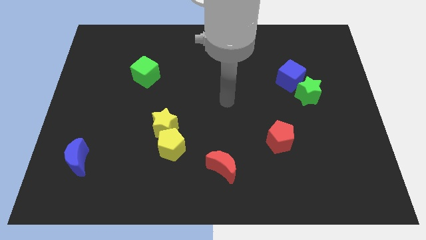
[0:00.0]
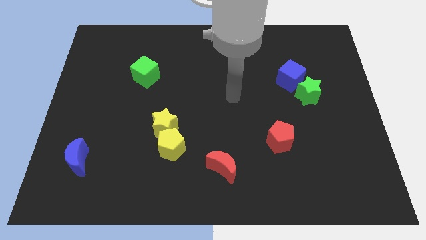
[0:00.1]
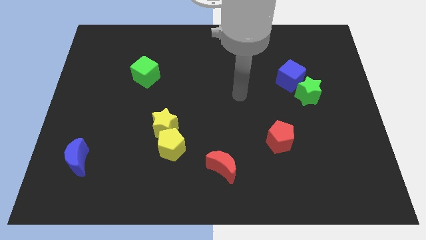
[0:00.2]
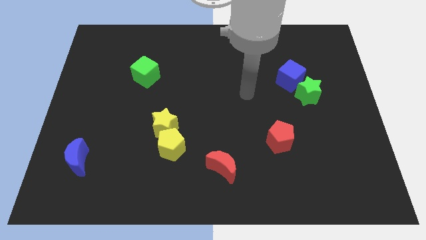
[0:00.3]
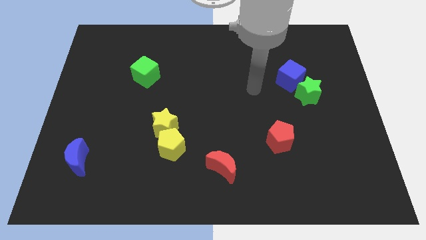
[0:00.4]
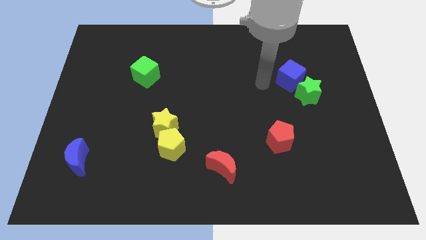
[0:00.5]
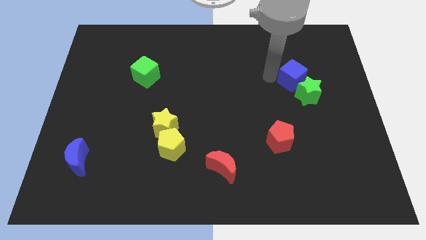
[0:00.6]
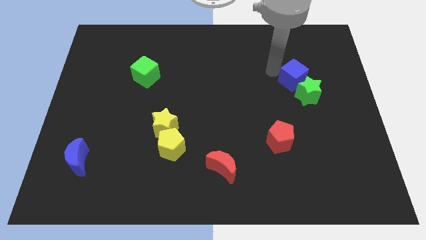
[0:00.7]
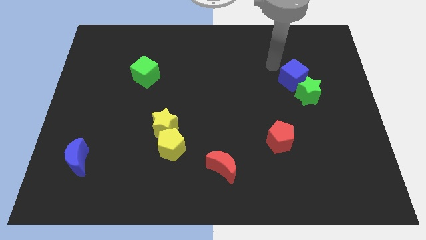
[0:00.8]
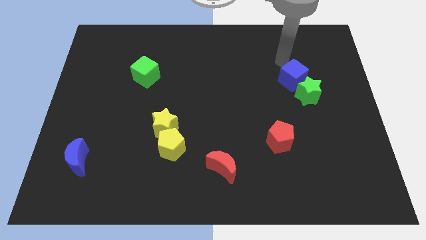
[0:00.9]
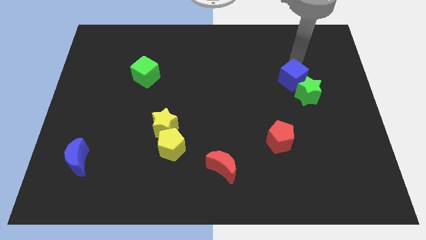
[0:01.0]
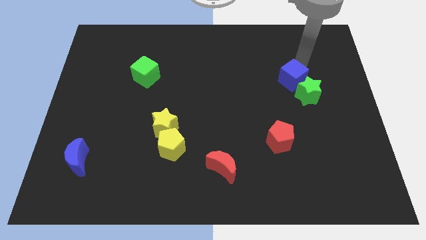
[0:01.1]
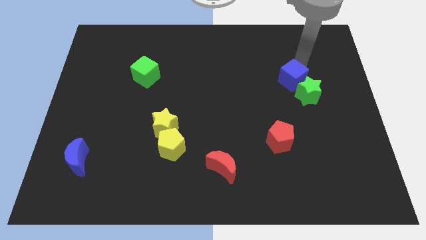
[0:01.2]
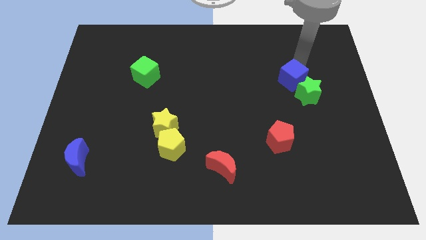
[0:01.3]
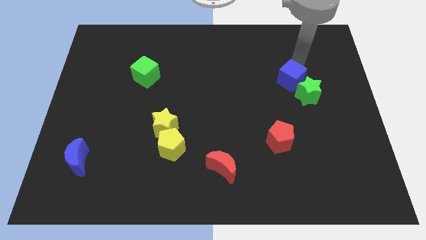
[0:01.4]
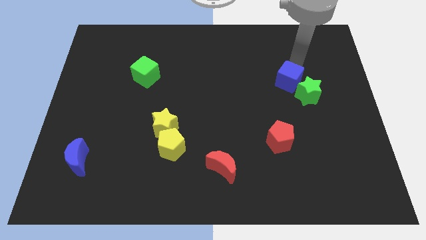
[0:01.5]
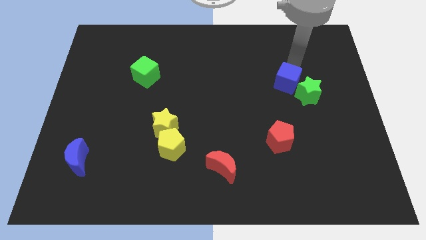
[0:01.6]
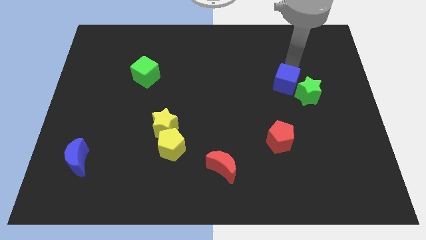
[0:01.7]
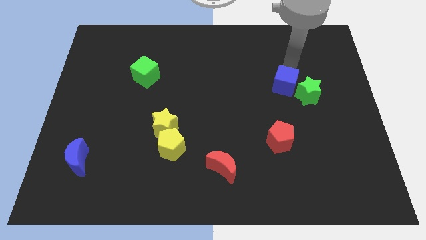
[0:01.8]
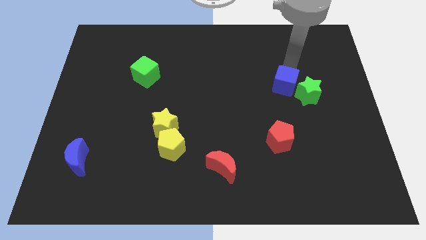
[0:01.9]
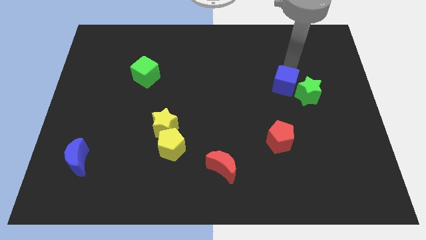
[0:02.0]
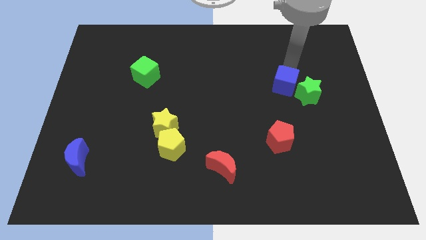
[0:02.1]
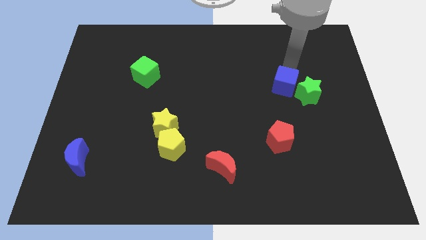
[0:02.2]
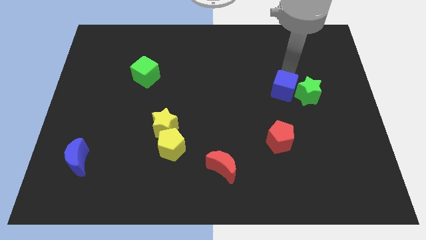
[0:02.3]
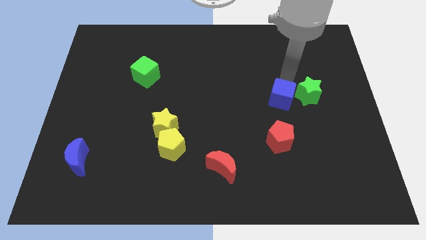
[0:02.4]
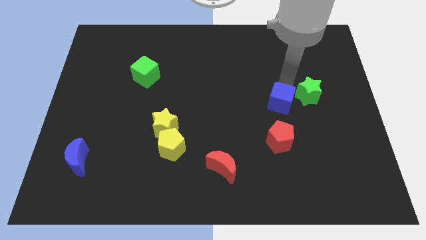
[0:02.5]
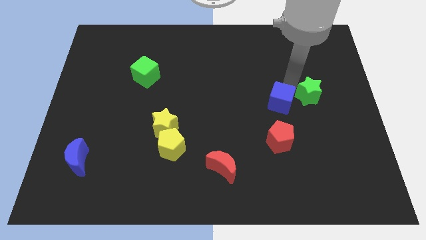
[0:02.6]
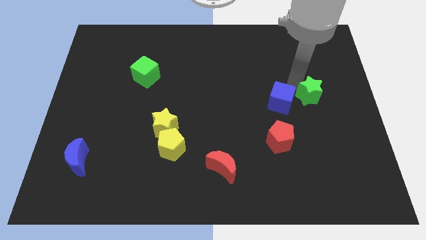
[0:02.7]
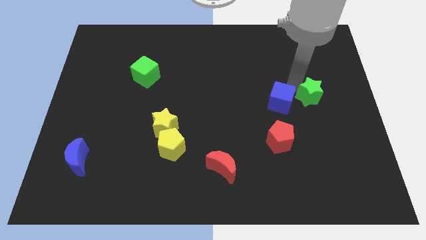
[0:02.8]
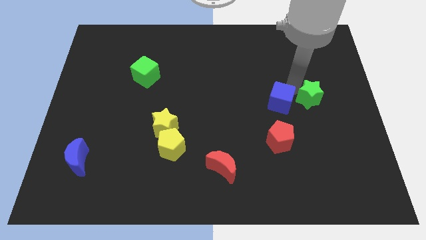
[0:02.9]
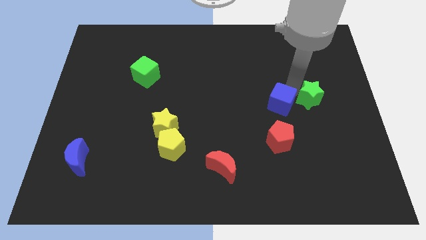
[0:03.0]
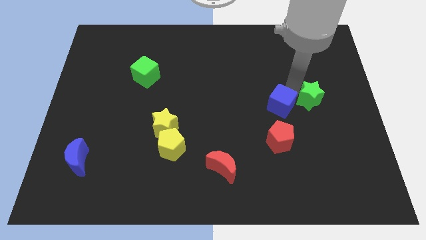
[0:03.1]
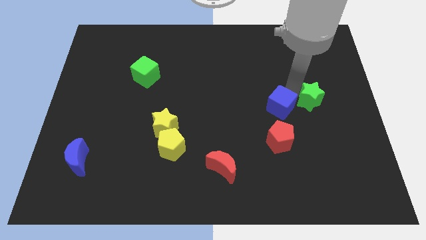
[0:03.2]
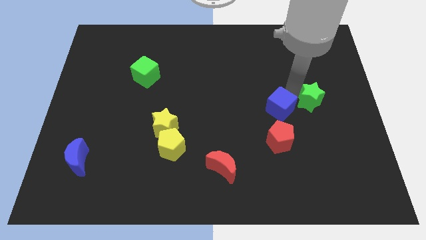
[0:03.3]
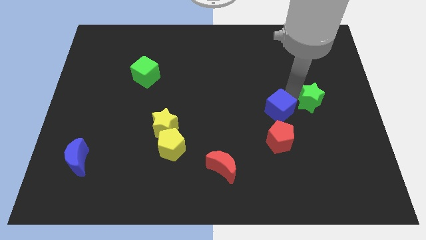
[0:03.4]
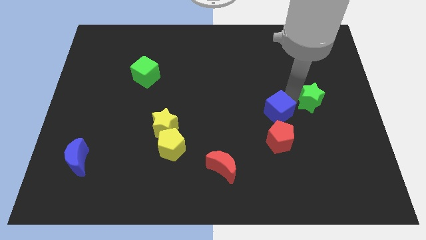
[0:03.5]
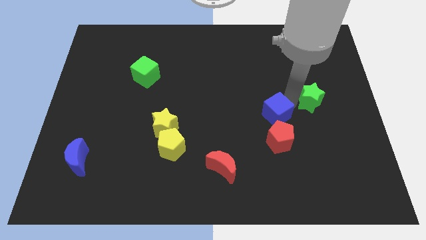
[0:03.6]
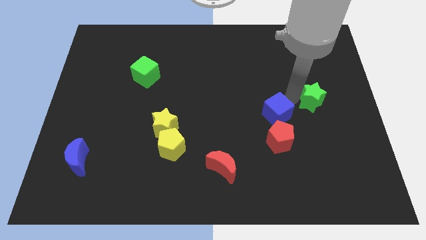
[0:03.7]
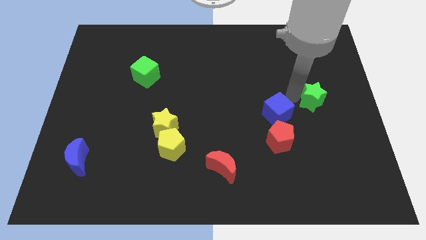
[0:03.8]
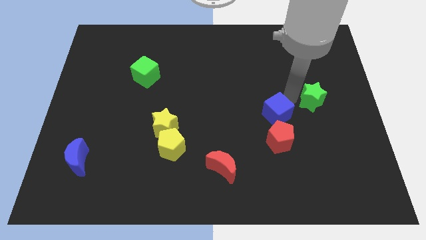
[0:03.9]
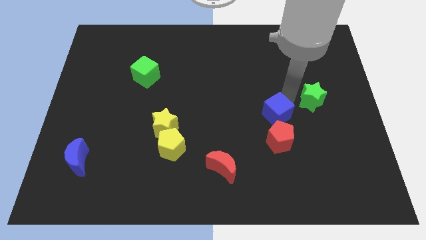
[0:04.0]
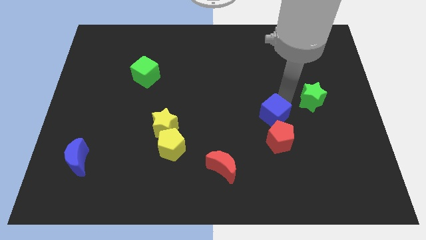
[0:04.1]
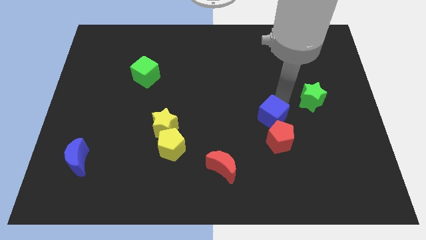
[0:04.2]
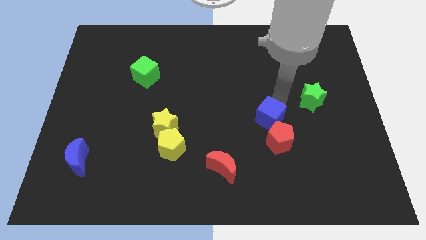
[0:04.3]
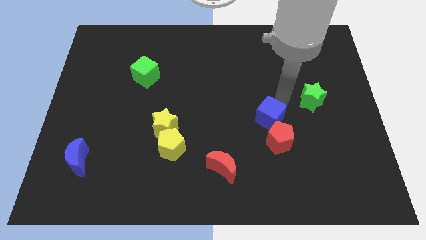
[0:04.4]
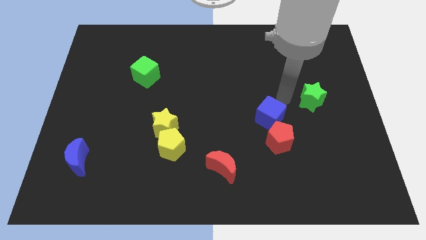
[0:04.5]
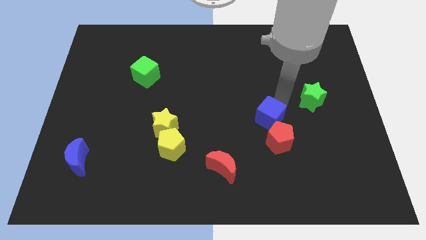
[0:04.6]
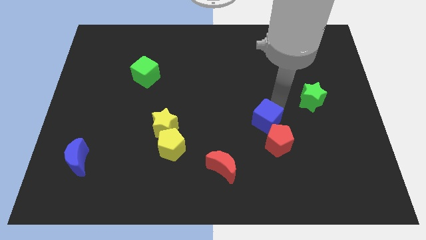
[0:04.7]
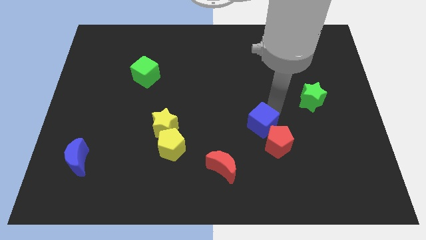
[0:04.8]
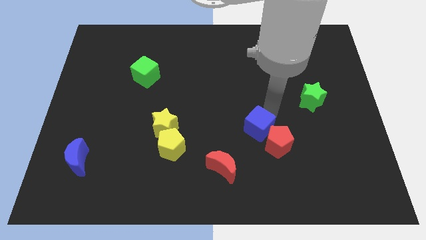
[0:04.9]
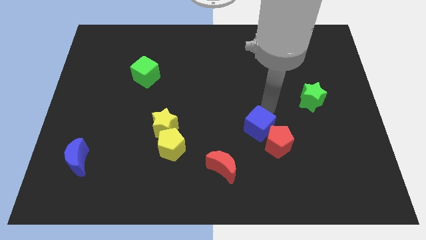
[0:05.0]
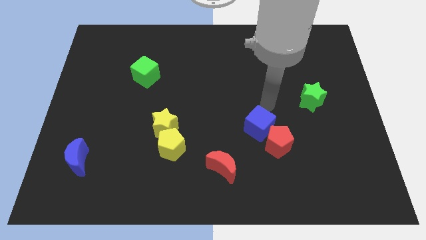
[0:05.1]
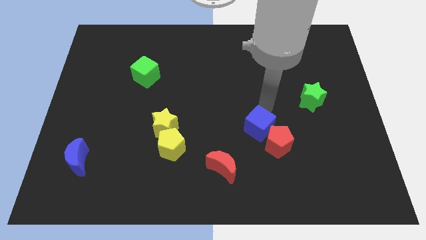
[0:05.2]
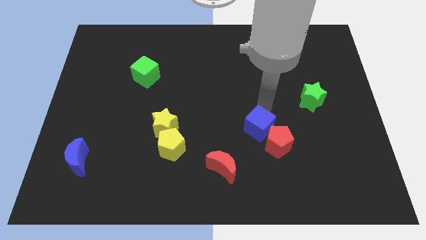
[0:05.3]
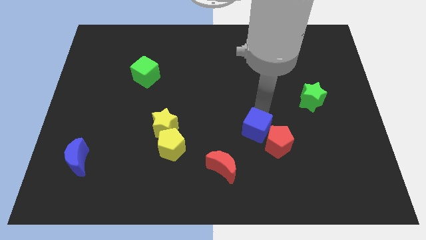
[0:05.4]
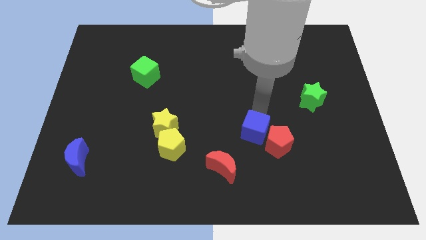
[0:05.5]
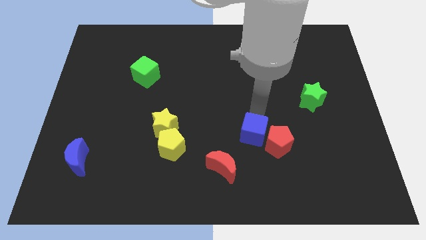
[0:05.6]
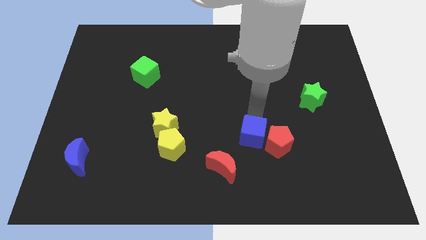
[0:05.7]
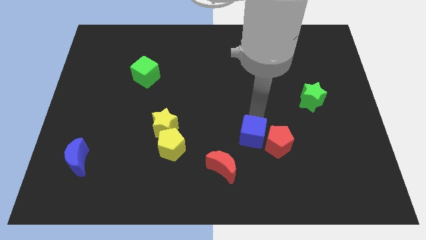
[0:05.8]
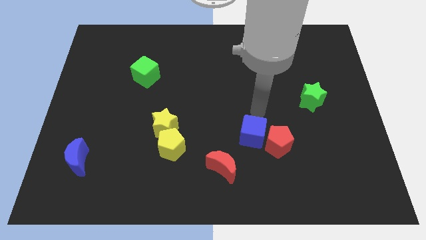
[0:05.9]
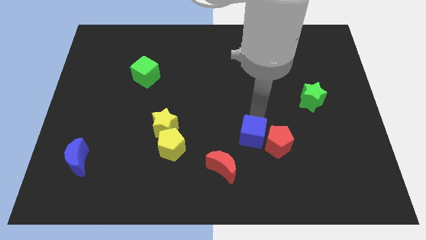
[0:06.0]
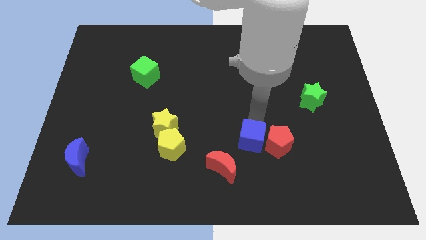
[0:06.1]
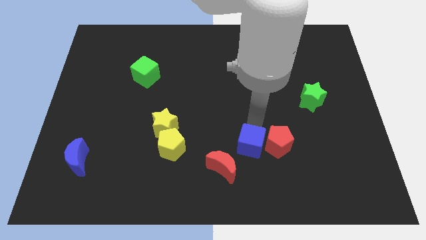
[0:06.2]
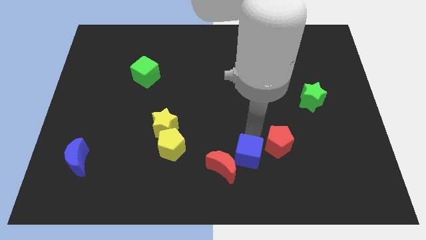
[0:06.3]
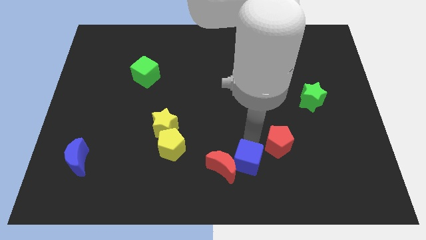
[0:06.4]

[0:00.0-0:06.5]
push the blue cube to the bottom side
